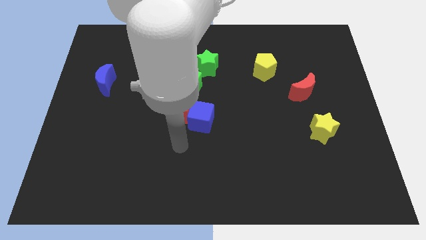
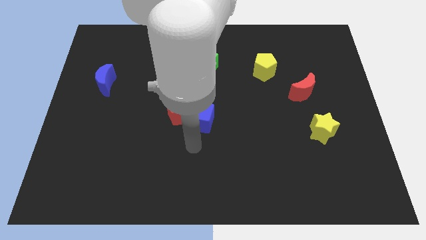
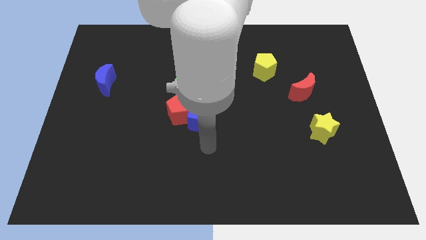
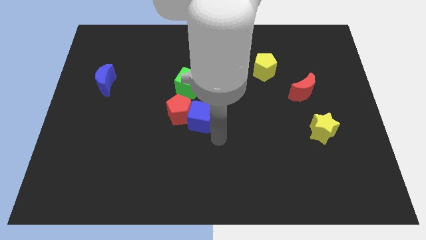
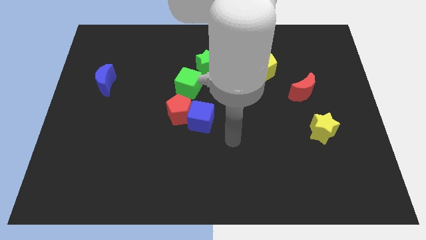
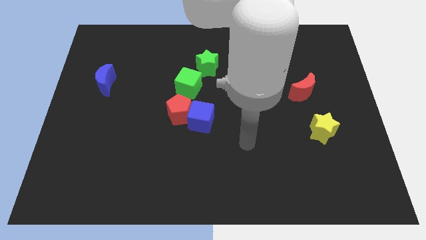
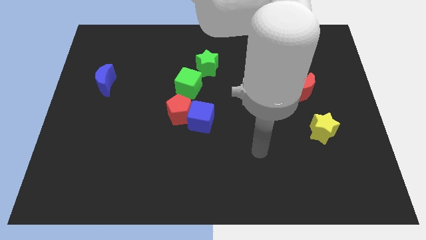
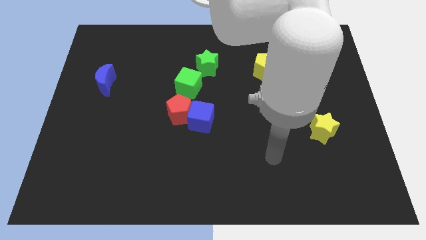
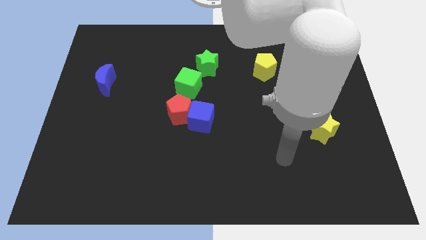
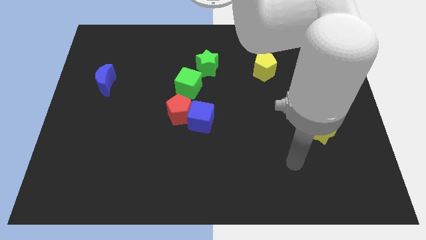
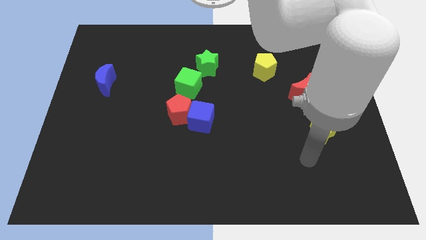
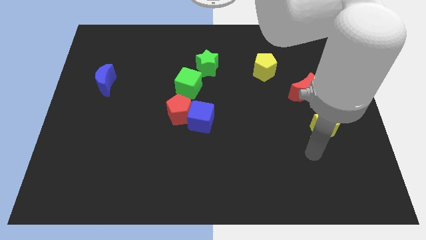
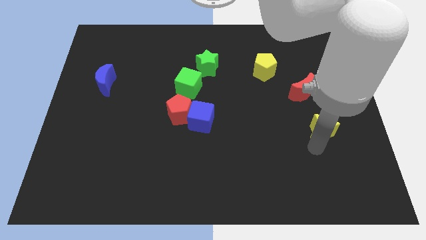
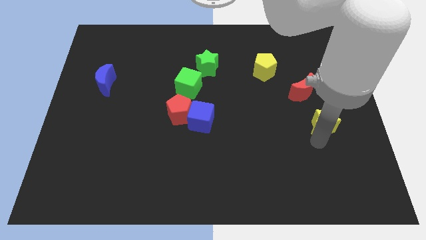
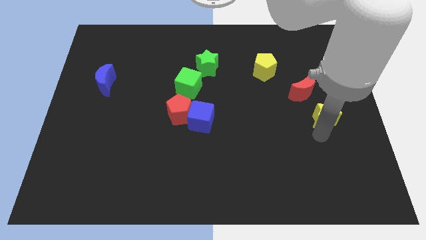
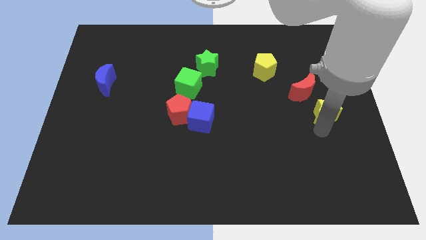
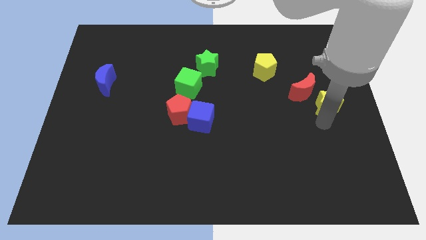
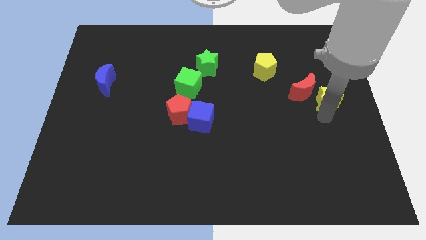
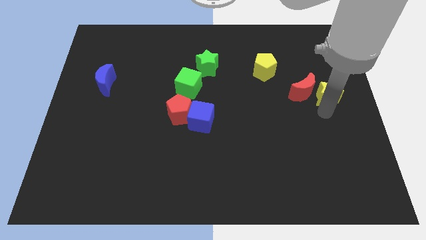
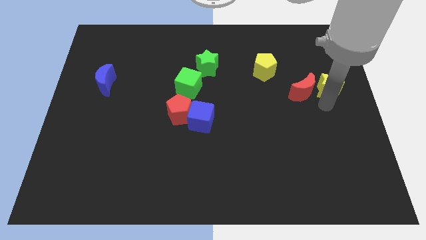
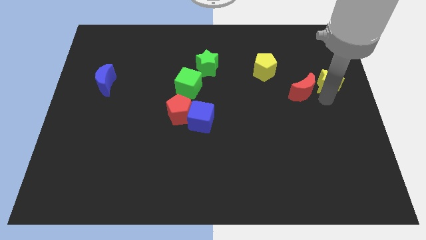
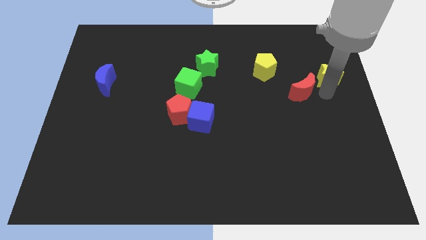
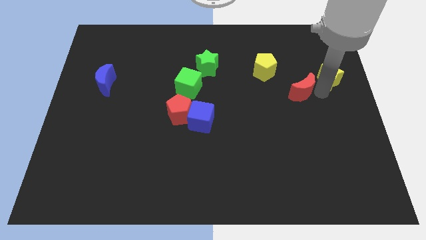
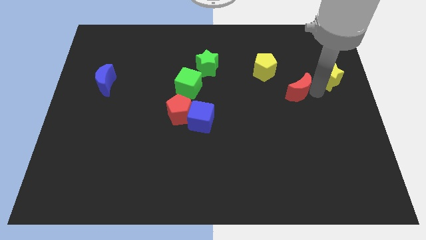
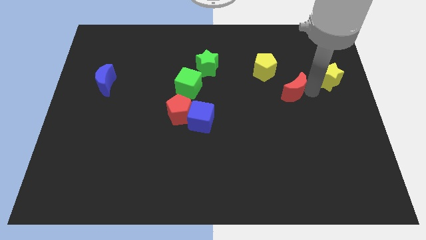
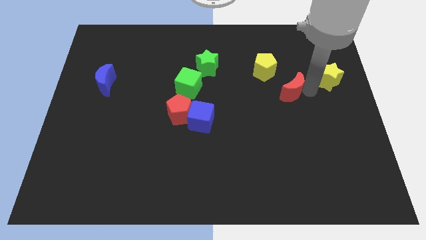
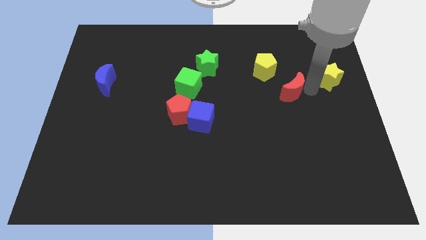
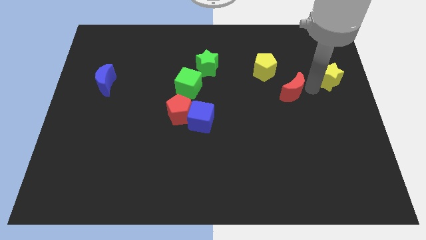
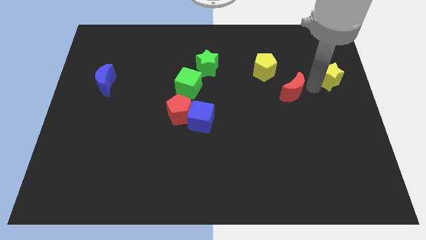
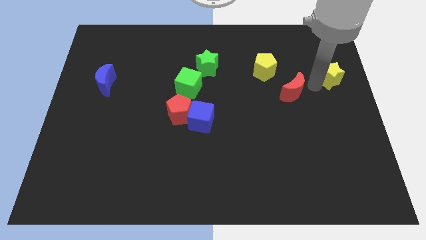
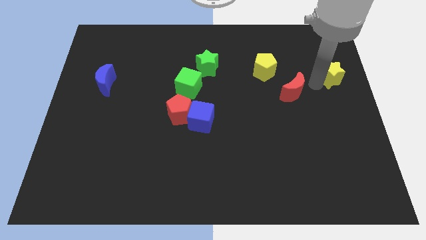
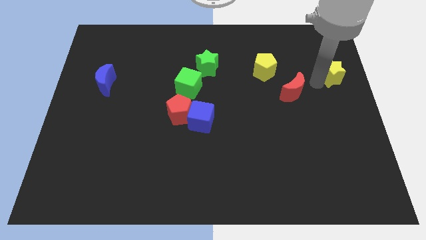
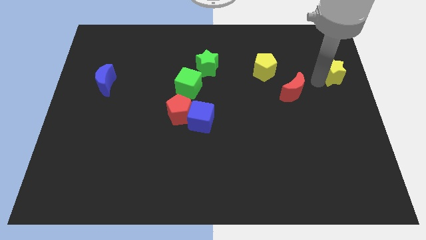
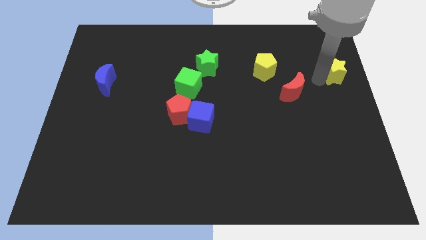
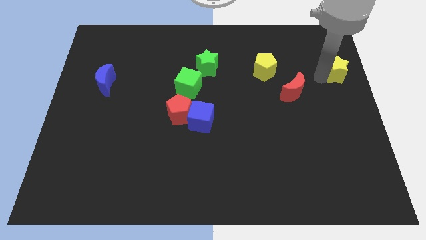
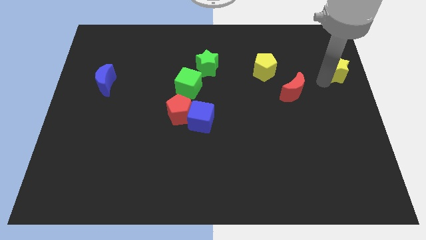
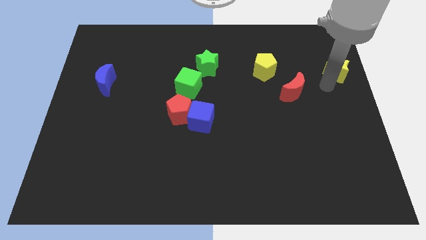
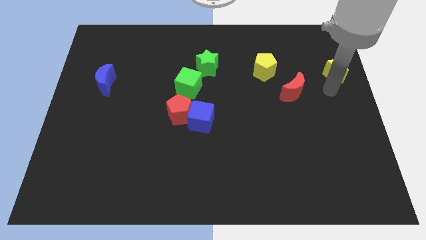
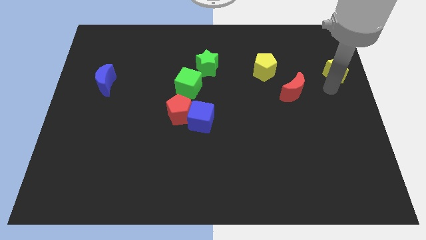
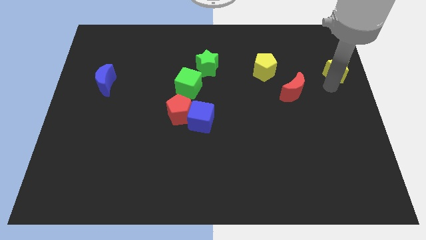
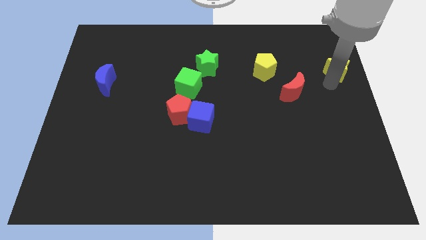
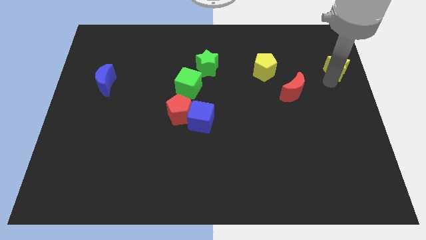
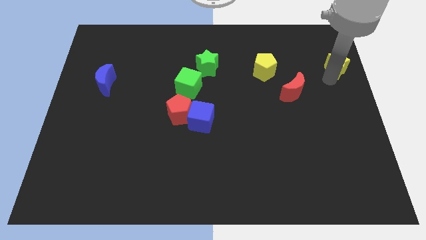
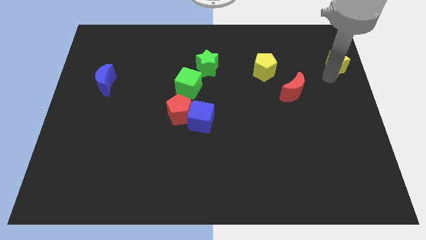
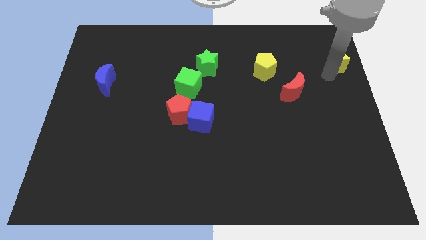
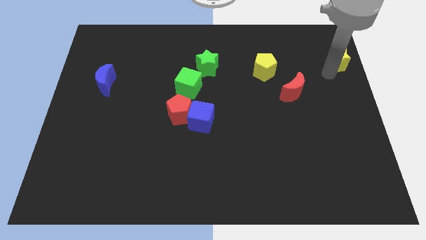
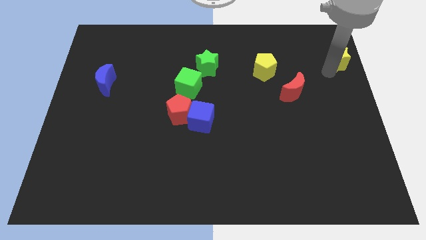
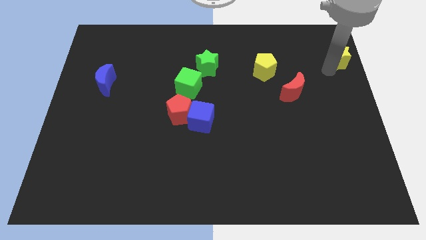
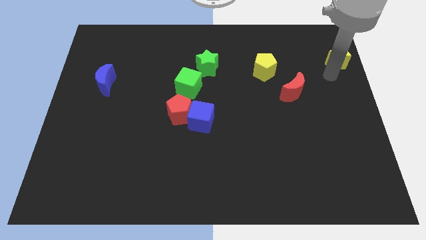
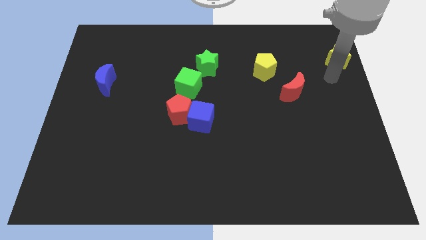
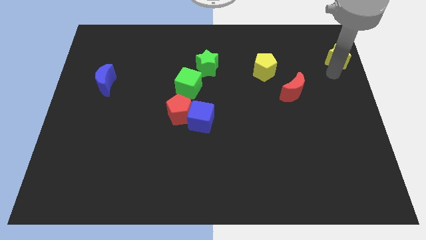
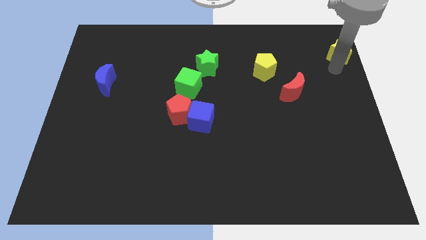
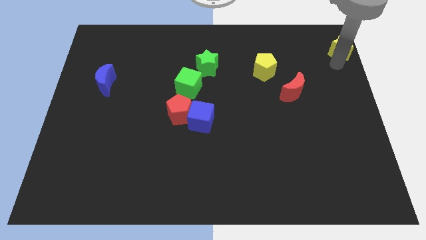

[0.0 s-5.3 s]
slide the yellow star to the top right
